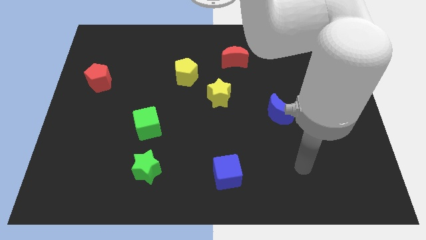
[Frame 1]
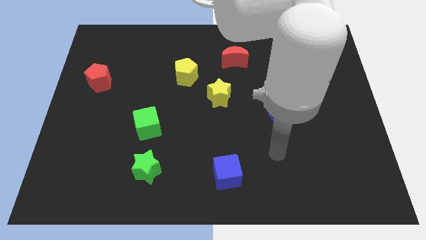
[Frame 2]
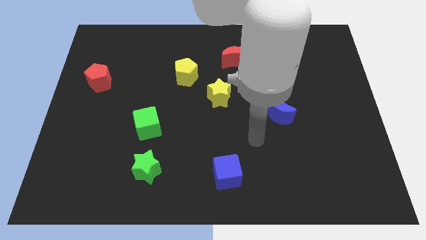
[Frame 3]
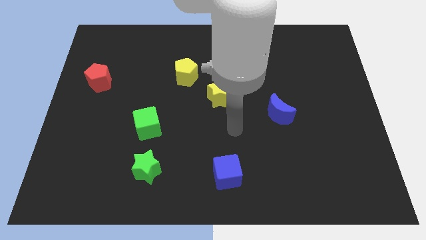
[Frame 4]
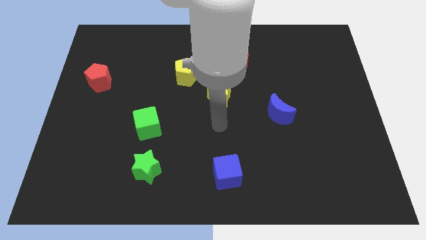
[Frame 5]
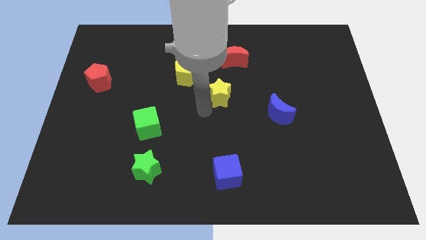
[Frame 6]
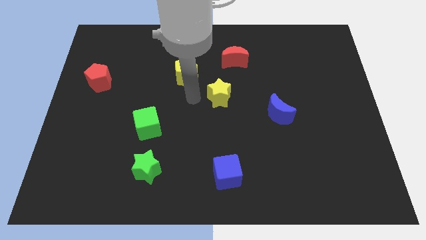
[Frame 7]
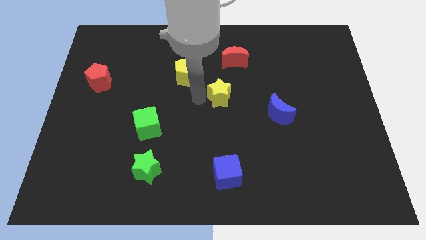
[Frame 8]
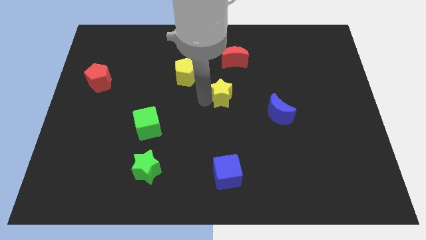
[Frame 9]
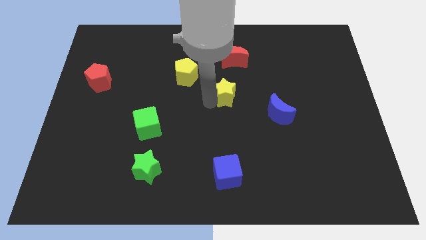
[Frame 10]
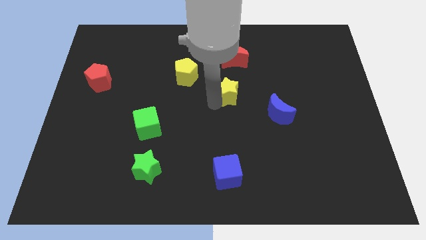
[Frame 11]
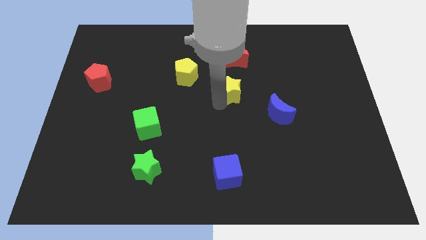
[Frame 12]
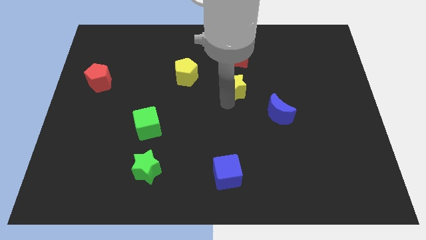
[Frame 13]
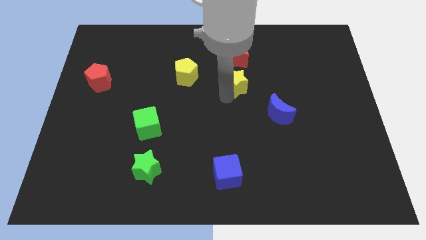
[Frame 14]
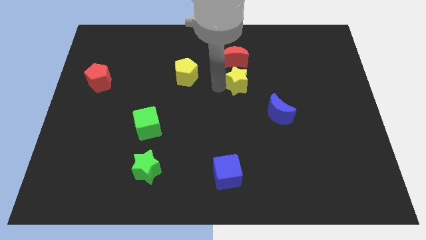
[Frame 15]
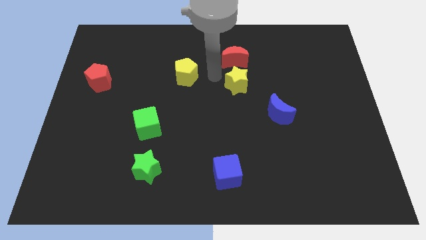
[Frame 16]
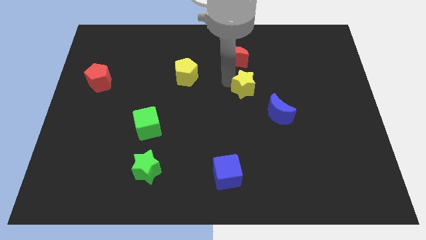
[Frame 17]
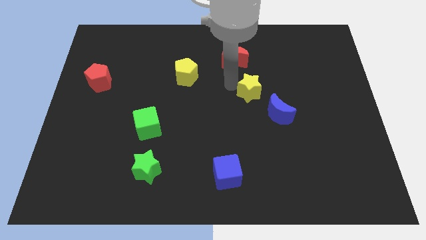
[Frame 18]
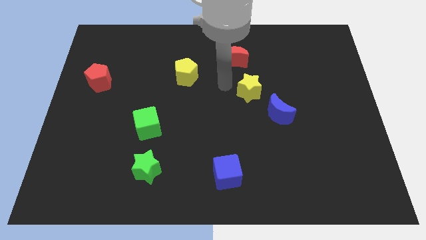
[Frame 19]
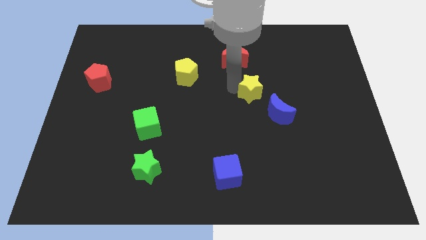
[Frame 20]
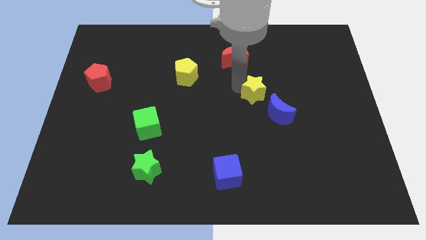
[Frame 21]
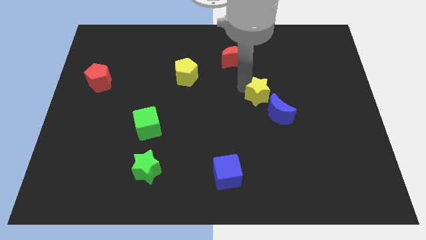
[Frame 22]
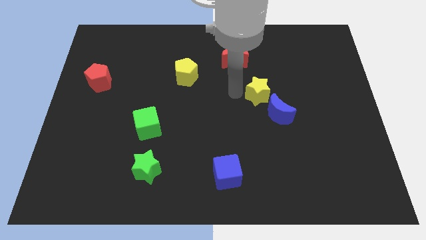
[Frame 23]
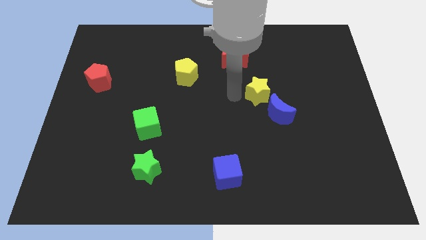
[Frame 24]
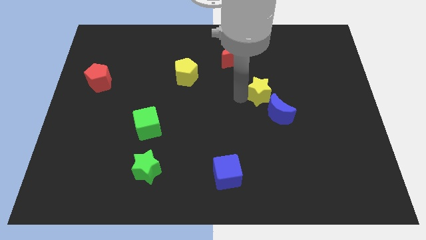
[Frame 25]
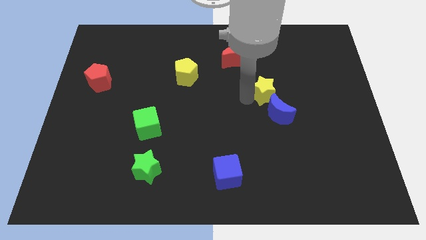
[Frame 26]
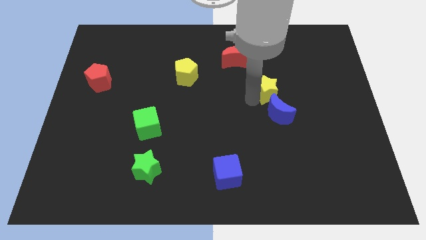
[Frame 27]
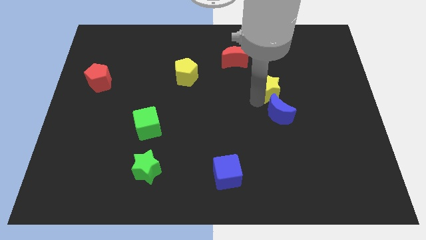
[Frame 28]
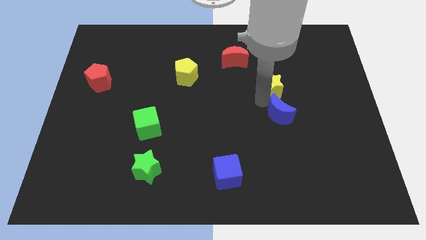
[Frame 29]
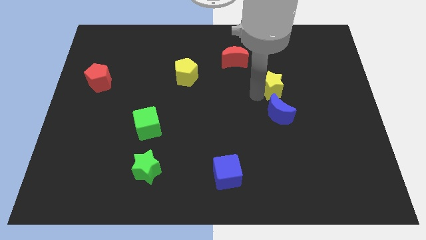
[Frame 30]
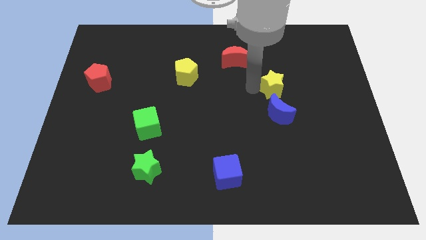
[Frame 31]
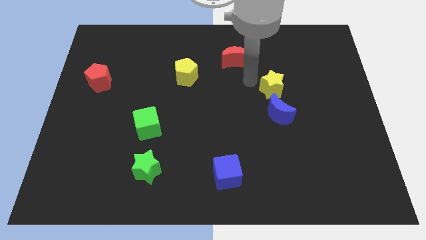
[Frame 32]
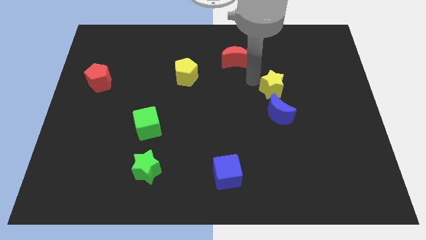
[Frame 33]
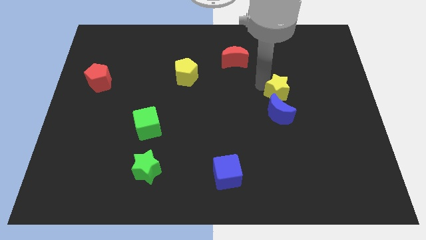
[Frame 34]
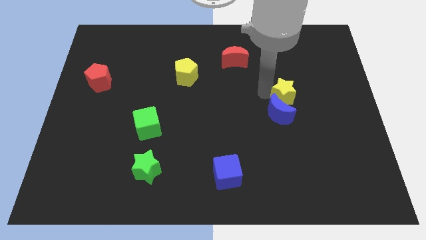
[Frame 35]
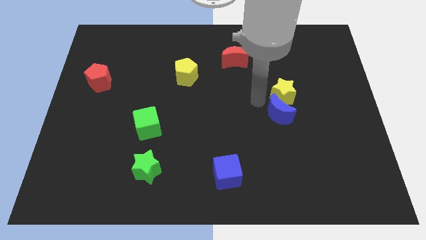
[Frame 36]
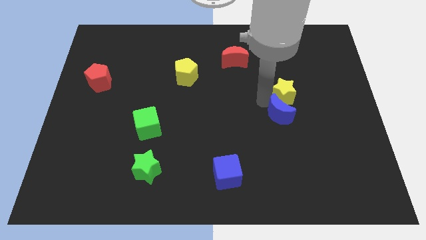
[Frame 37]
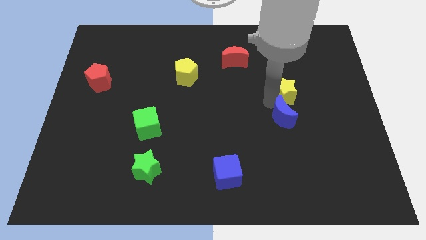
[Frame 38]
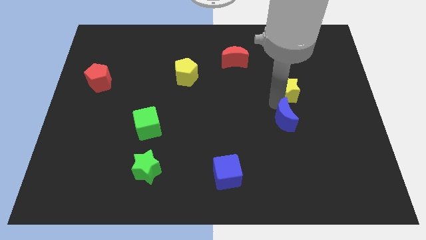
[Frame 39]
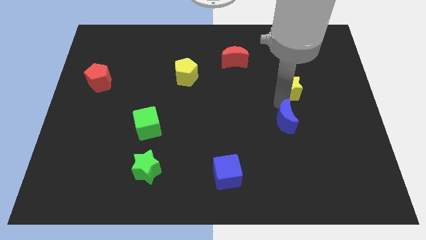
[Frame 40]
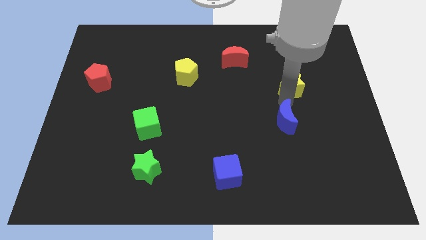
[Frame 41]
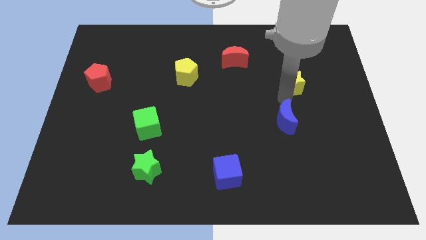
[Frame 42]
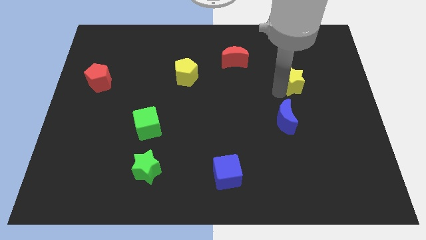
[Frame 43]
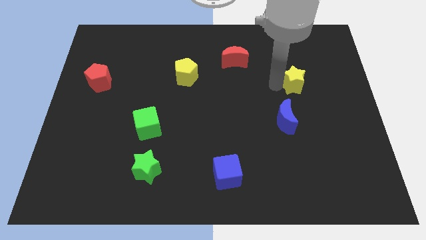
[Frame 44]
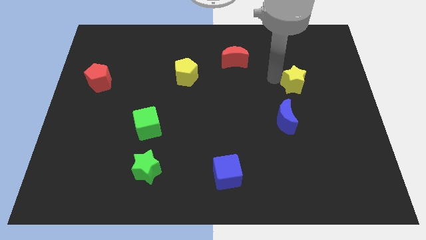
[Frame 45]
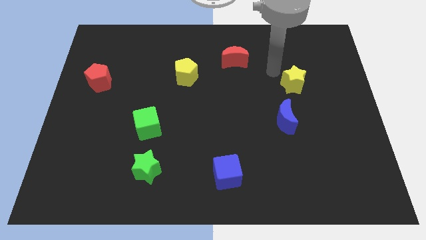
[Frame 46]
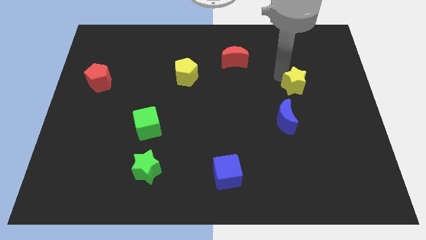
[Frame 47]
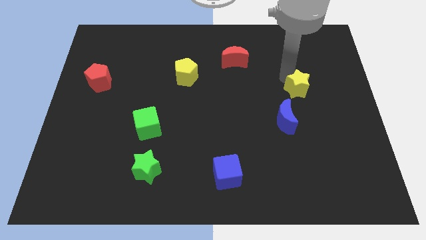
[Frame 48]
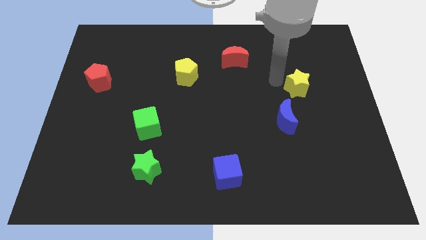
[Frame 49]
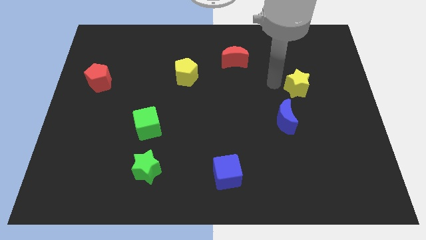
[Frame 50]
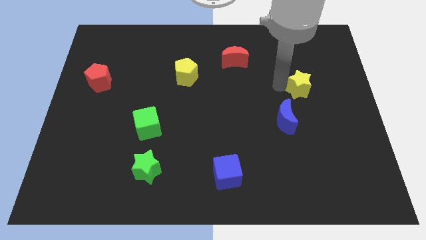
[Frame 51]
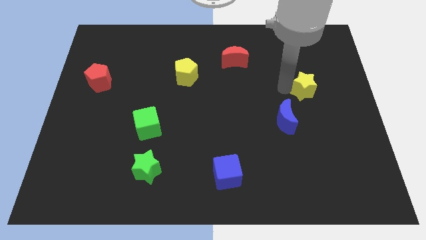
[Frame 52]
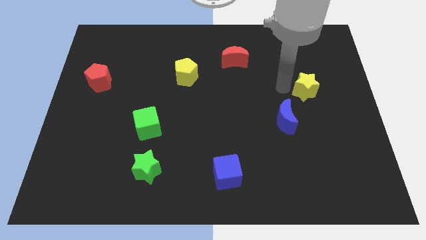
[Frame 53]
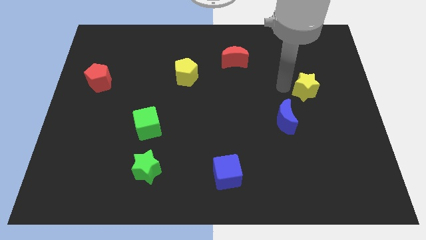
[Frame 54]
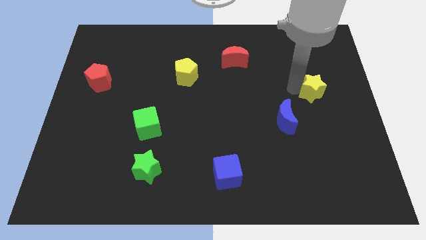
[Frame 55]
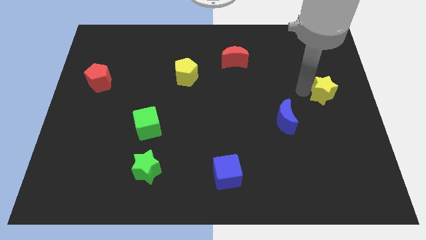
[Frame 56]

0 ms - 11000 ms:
push the yellow star to the center right

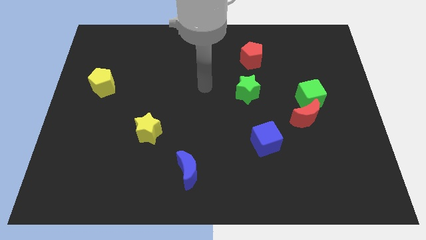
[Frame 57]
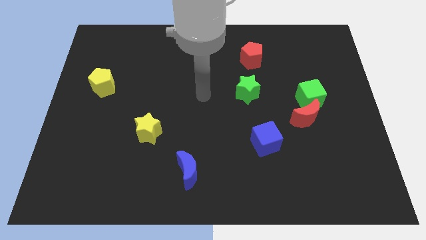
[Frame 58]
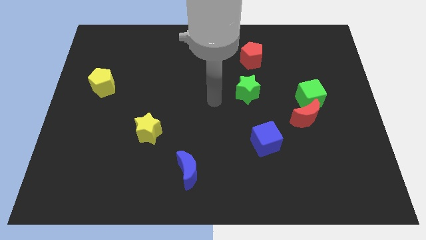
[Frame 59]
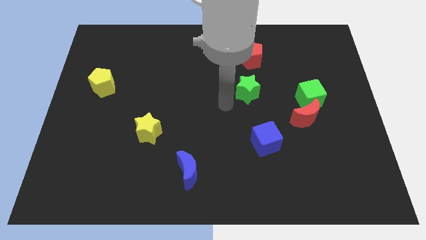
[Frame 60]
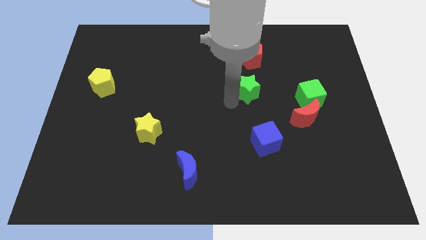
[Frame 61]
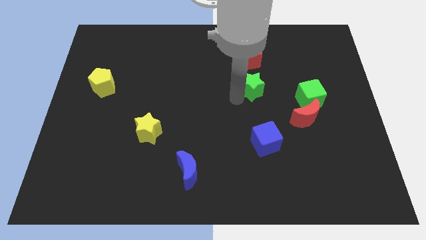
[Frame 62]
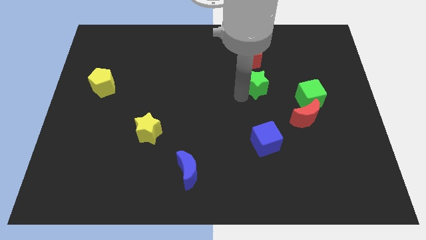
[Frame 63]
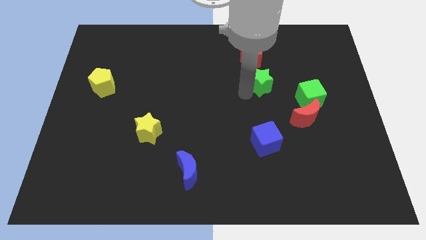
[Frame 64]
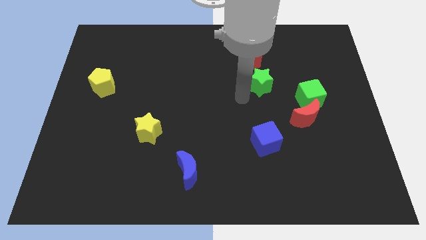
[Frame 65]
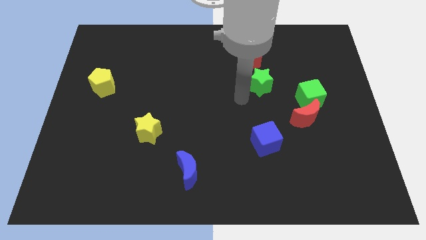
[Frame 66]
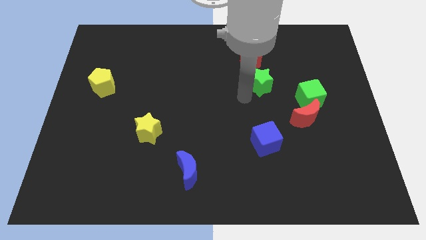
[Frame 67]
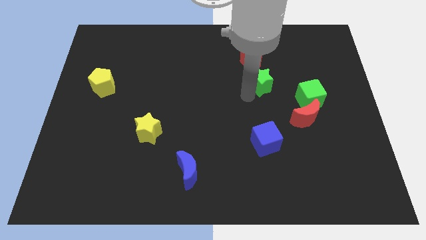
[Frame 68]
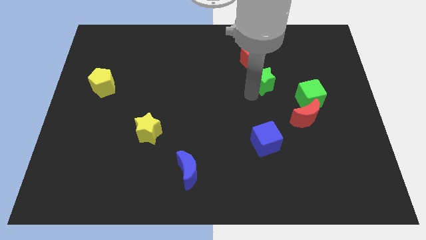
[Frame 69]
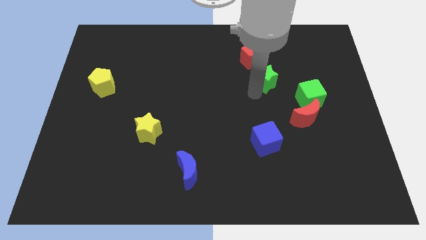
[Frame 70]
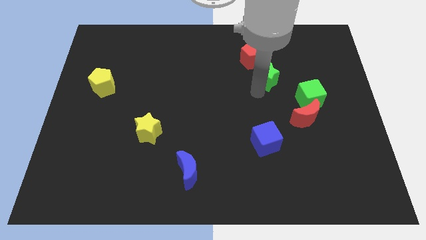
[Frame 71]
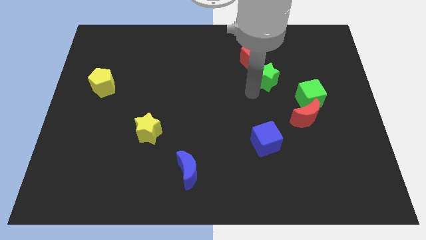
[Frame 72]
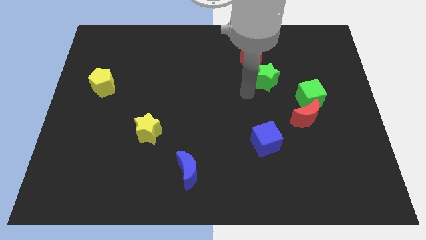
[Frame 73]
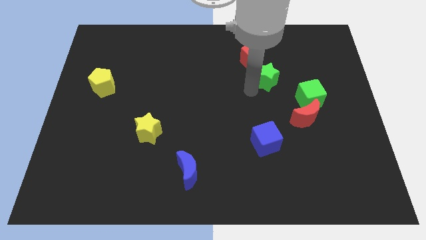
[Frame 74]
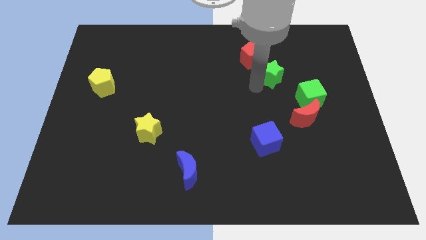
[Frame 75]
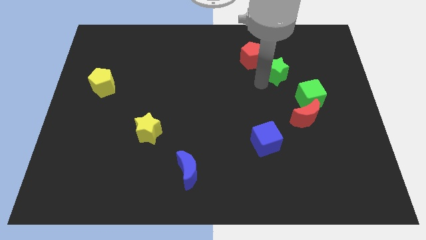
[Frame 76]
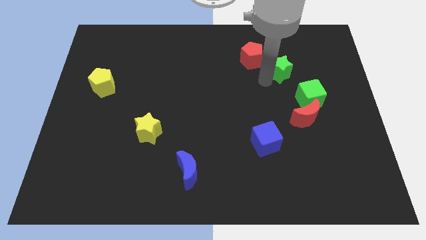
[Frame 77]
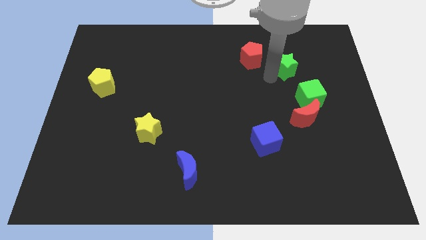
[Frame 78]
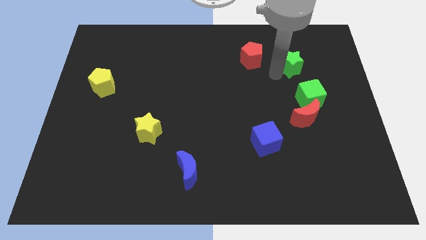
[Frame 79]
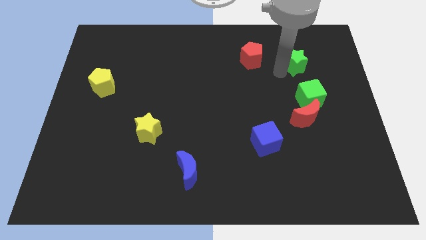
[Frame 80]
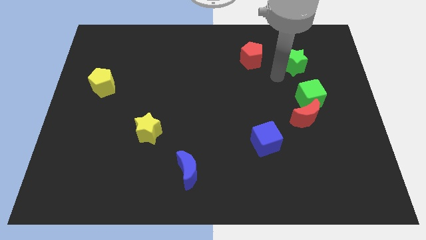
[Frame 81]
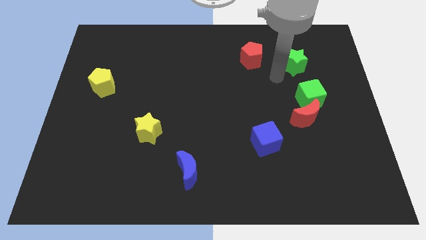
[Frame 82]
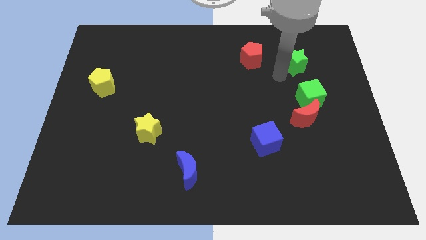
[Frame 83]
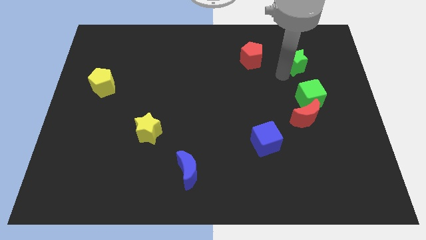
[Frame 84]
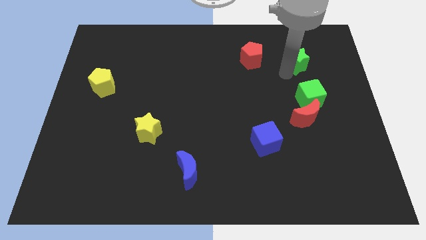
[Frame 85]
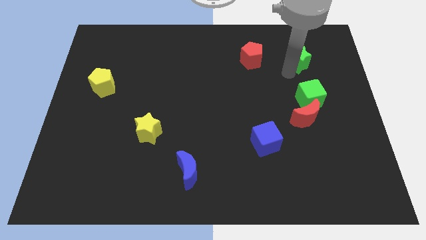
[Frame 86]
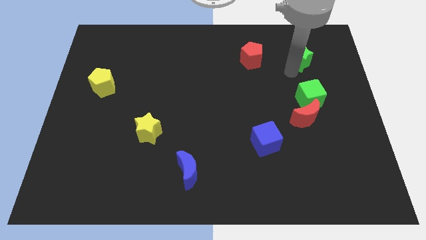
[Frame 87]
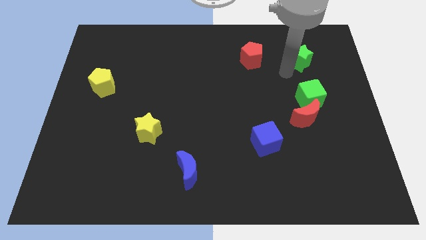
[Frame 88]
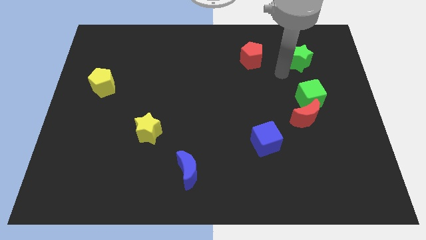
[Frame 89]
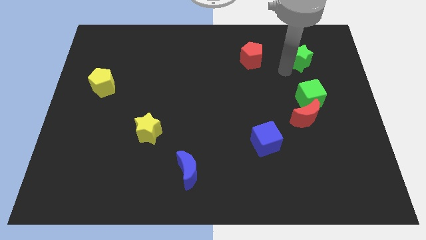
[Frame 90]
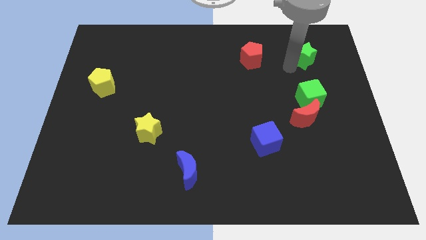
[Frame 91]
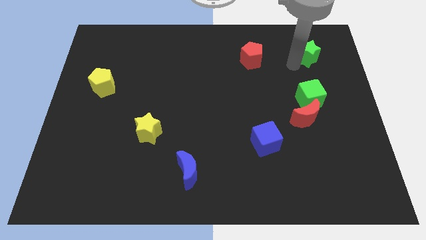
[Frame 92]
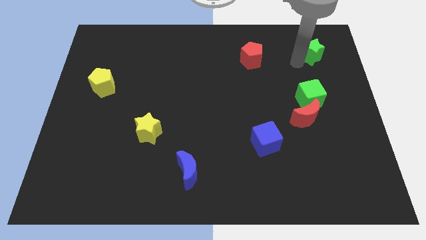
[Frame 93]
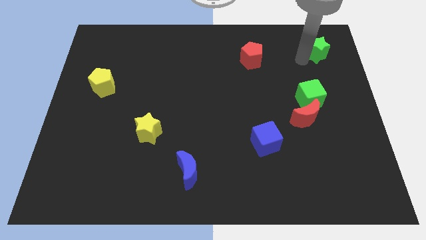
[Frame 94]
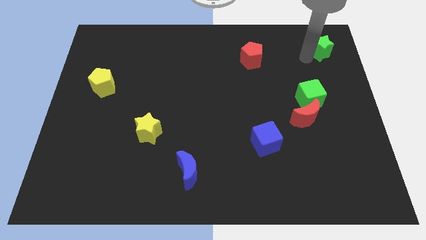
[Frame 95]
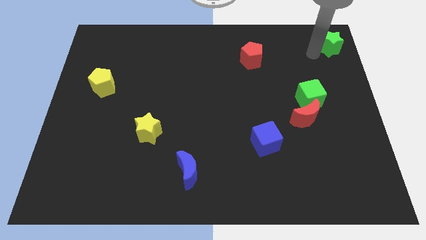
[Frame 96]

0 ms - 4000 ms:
move the green star to the top right of the board
